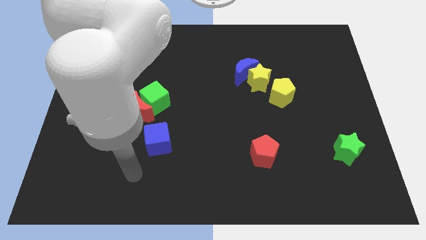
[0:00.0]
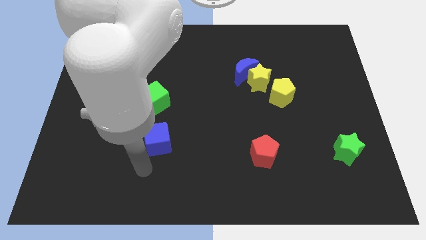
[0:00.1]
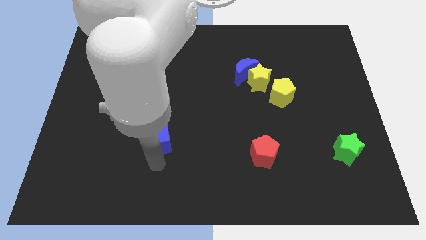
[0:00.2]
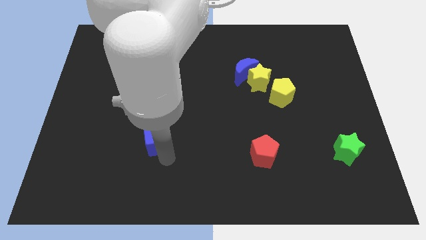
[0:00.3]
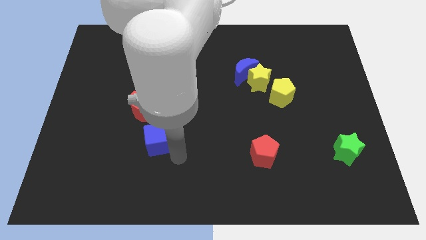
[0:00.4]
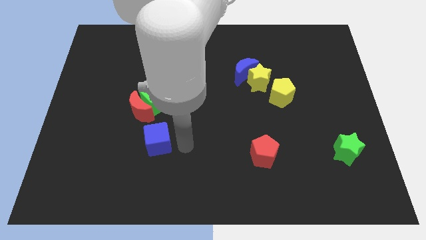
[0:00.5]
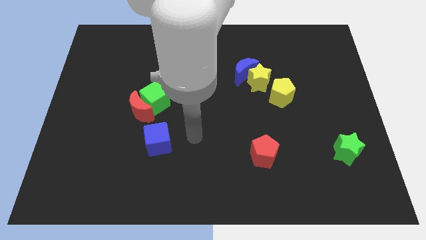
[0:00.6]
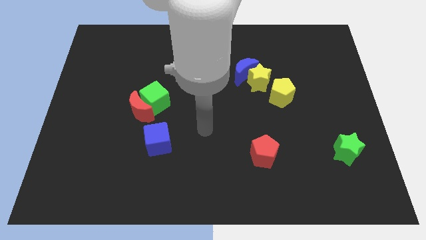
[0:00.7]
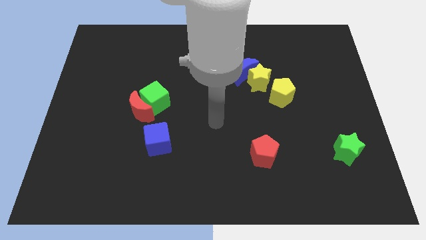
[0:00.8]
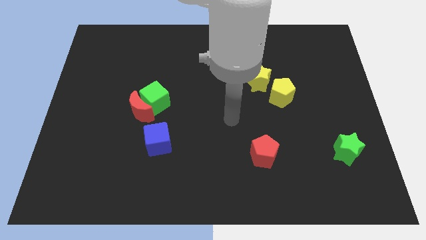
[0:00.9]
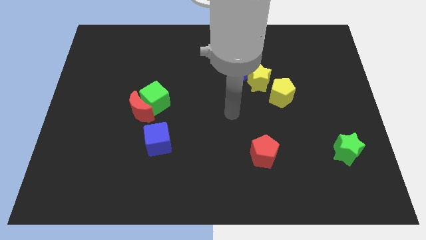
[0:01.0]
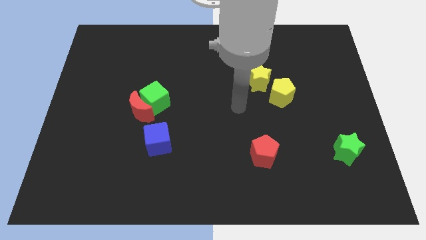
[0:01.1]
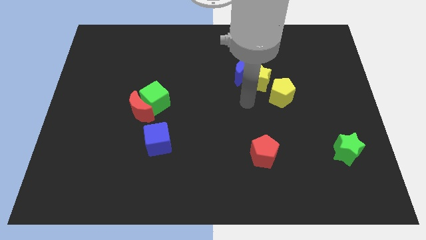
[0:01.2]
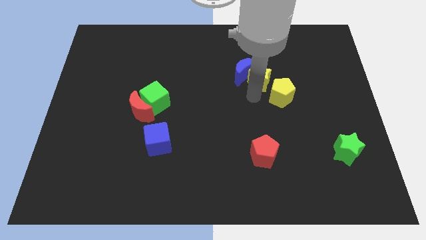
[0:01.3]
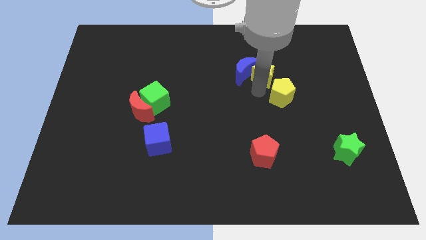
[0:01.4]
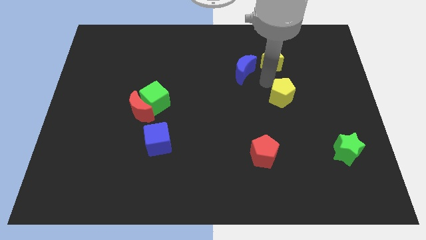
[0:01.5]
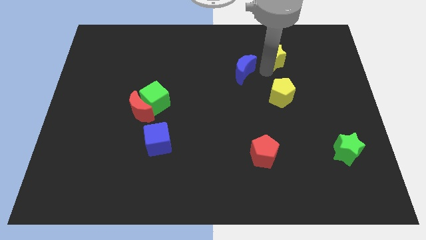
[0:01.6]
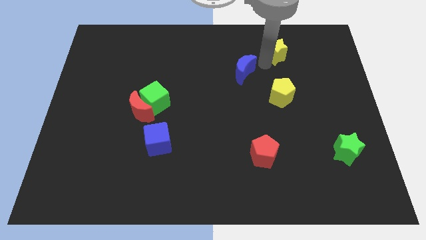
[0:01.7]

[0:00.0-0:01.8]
separate the blue moon from the yellow star

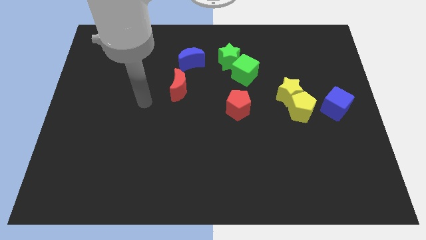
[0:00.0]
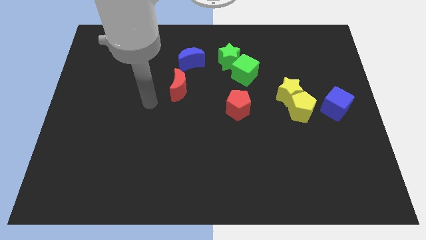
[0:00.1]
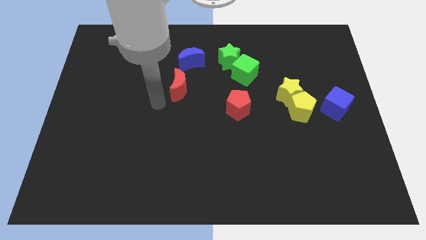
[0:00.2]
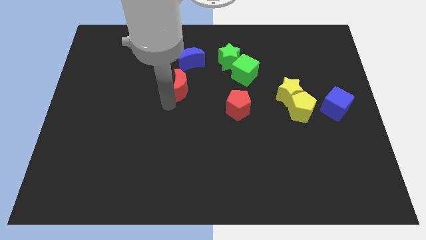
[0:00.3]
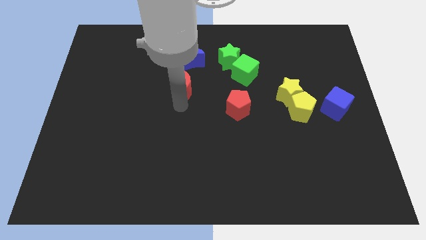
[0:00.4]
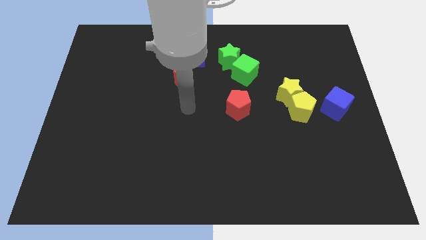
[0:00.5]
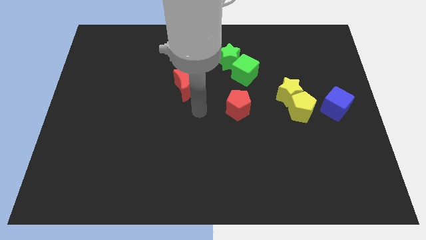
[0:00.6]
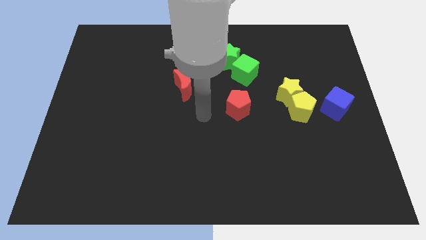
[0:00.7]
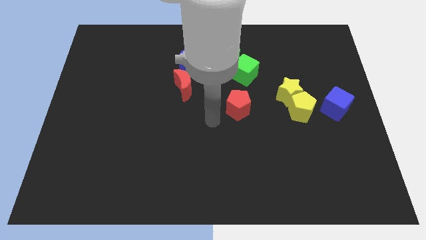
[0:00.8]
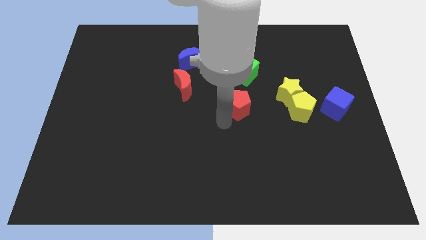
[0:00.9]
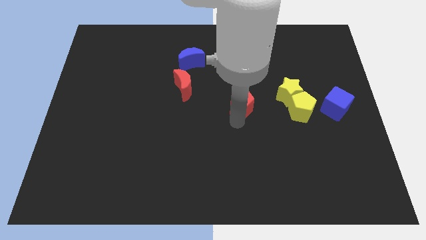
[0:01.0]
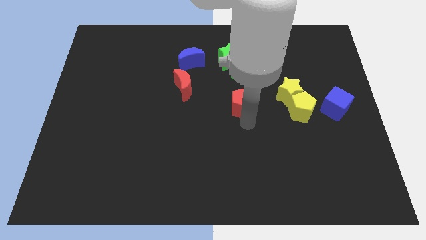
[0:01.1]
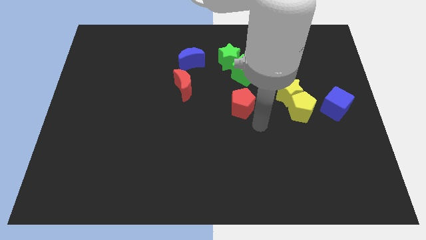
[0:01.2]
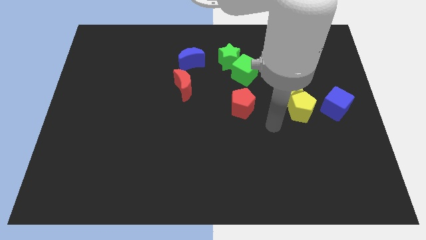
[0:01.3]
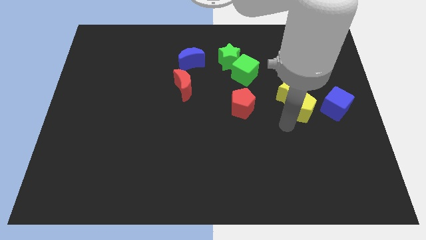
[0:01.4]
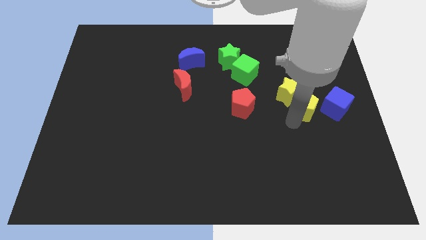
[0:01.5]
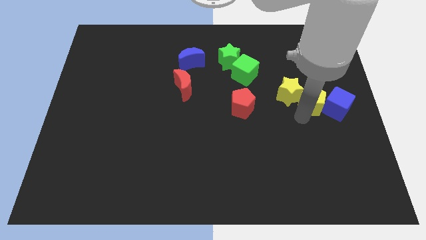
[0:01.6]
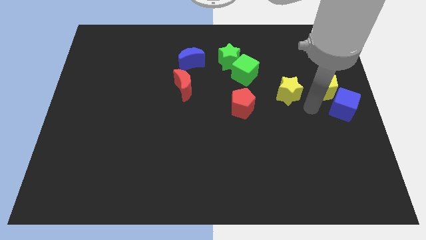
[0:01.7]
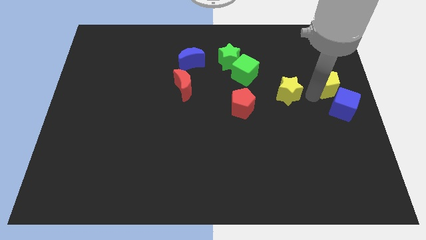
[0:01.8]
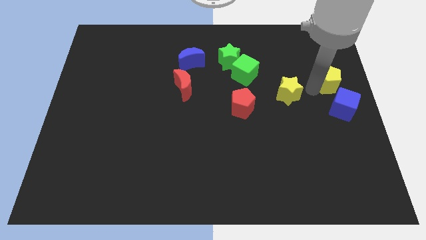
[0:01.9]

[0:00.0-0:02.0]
separate the yellow star from the yellow pentagon

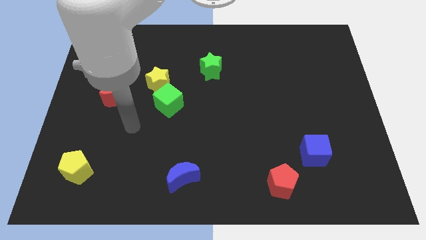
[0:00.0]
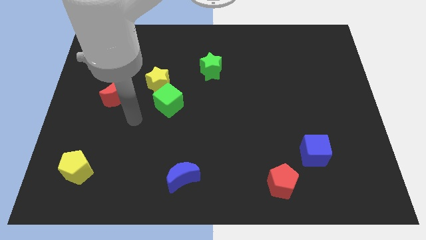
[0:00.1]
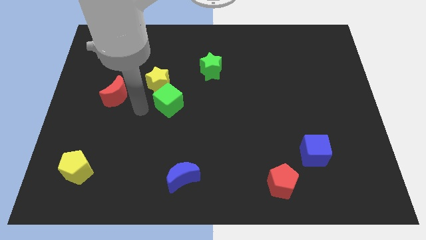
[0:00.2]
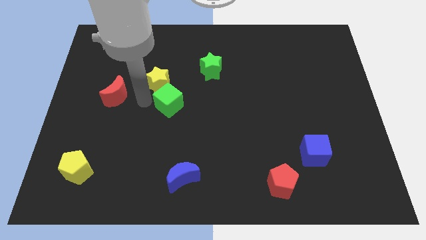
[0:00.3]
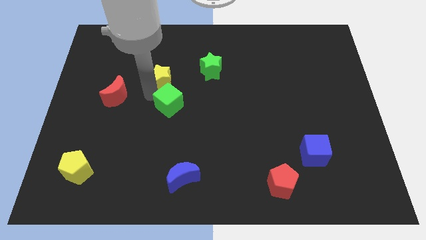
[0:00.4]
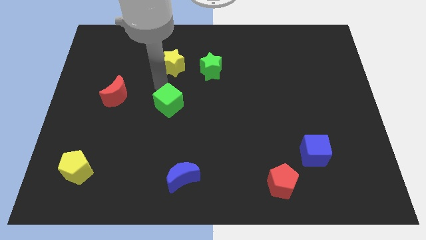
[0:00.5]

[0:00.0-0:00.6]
separate the green cube from the yellow star

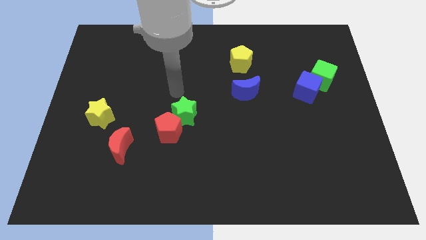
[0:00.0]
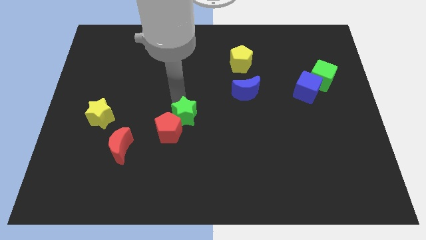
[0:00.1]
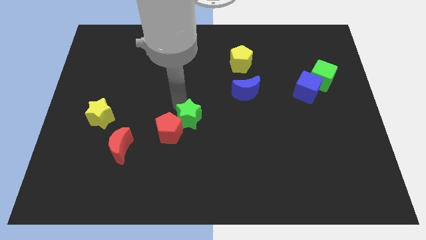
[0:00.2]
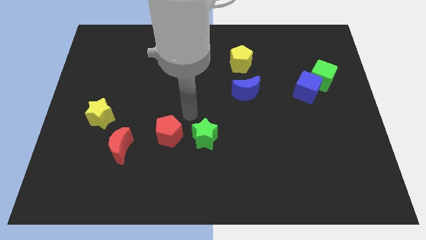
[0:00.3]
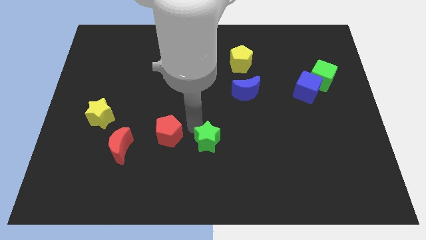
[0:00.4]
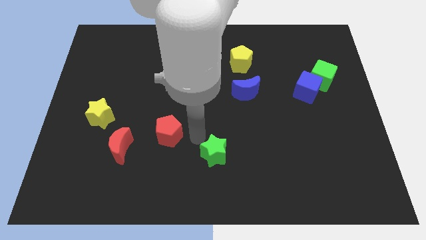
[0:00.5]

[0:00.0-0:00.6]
separate the red pentagon from the green star

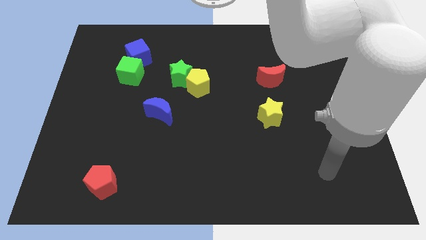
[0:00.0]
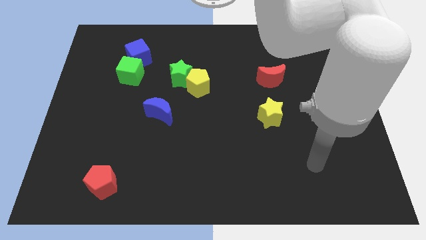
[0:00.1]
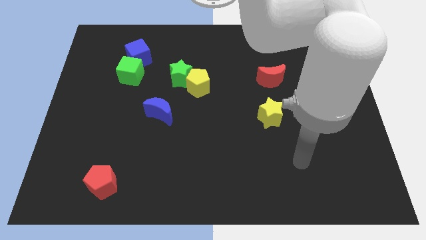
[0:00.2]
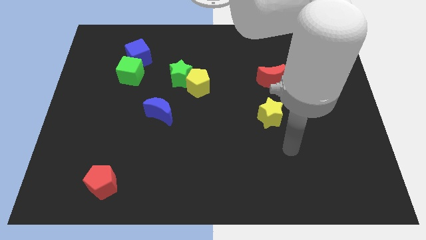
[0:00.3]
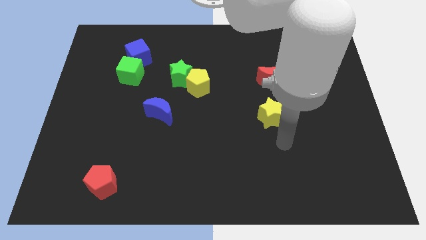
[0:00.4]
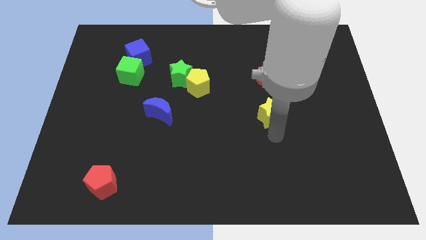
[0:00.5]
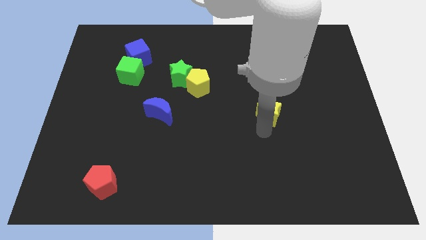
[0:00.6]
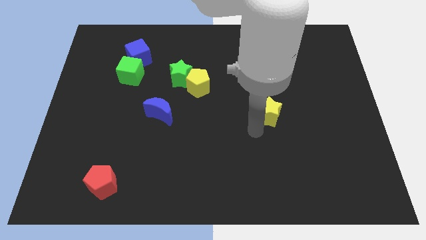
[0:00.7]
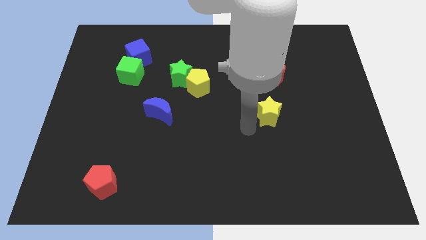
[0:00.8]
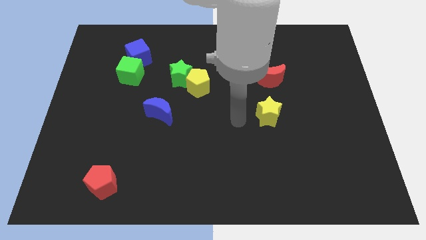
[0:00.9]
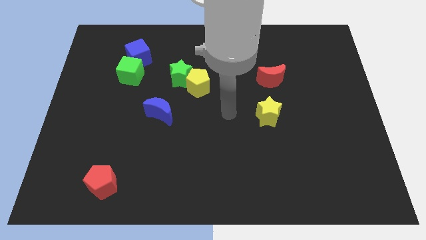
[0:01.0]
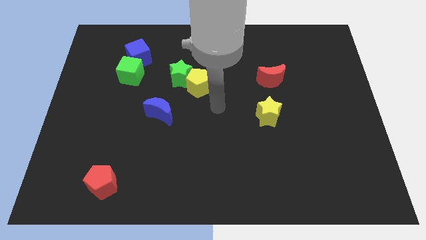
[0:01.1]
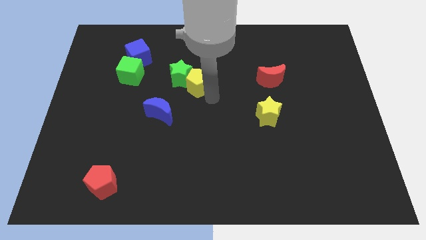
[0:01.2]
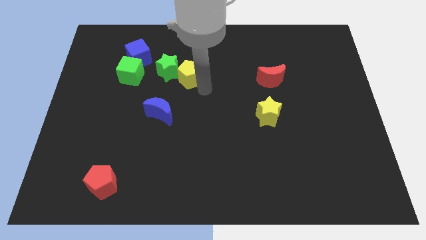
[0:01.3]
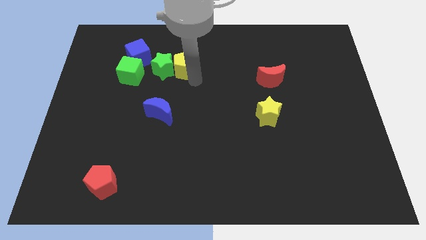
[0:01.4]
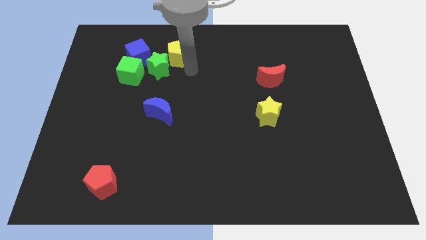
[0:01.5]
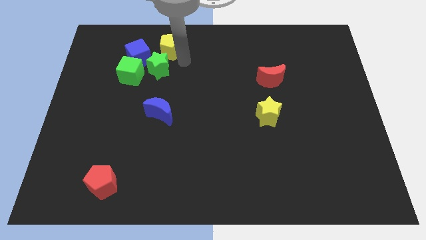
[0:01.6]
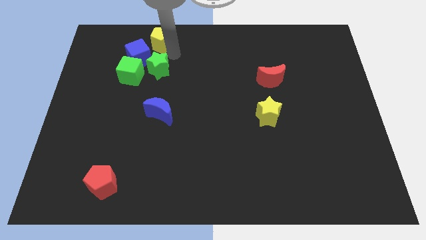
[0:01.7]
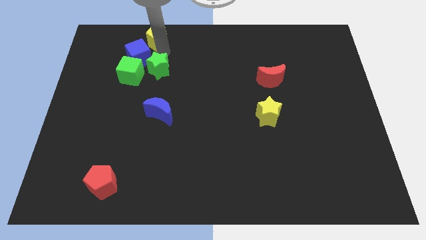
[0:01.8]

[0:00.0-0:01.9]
separate the green star from the yellow pentagon

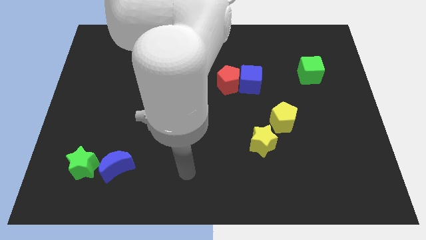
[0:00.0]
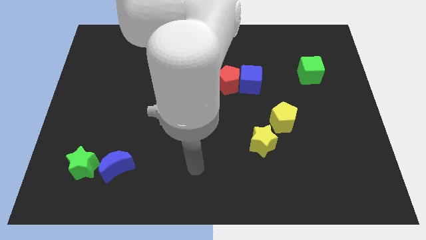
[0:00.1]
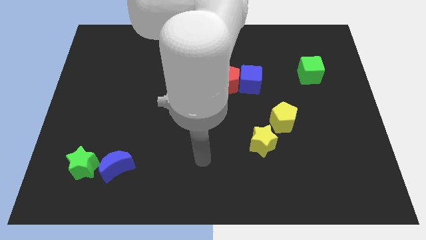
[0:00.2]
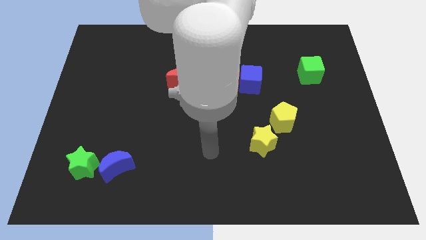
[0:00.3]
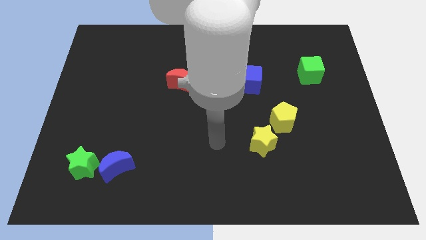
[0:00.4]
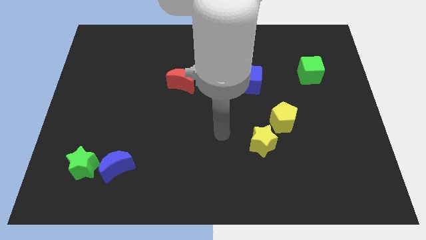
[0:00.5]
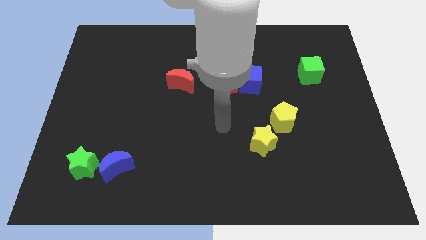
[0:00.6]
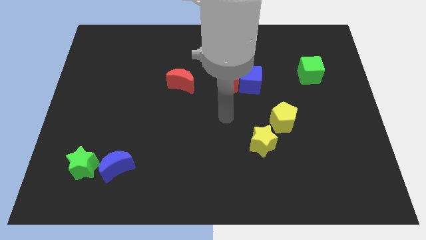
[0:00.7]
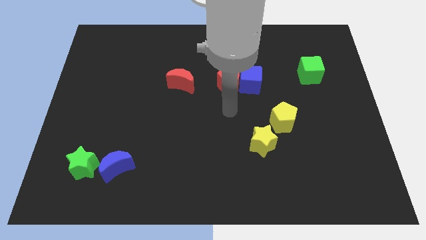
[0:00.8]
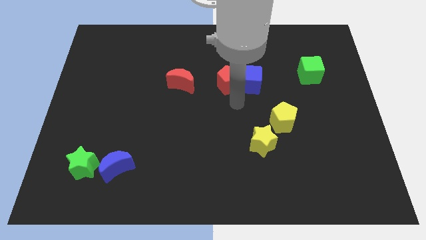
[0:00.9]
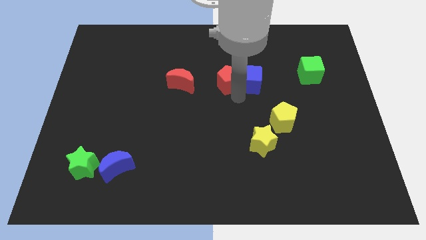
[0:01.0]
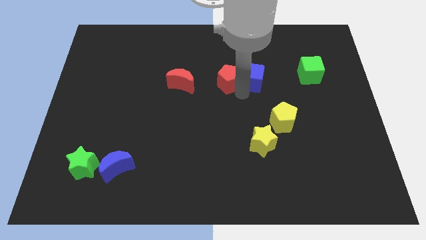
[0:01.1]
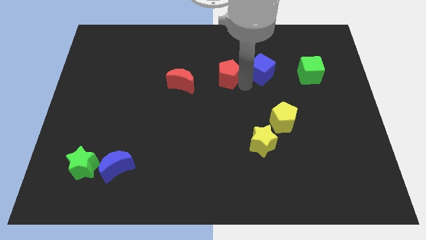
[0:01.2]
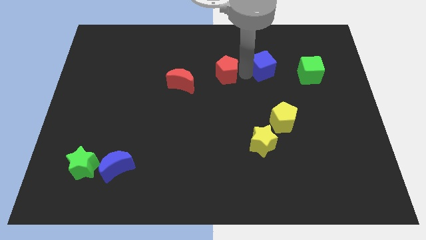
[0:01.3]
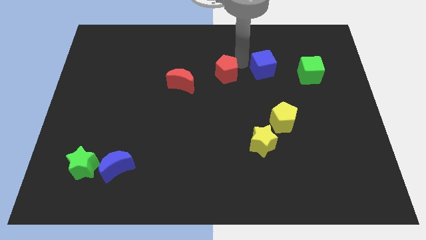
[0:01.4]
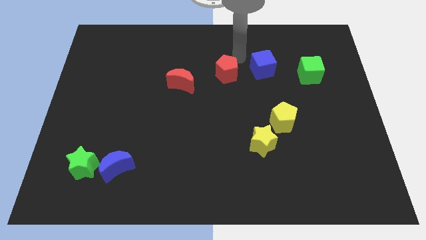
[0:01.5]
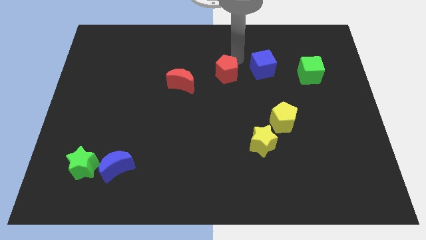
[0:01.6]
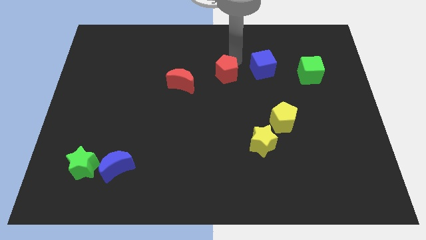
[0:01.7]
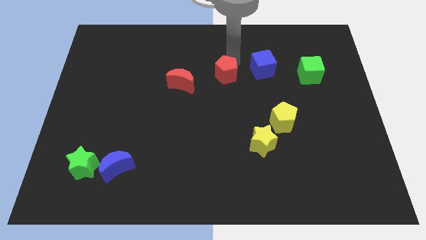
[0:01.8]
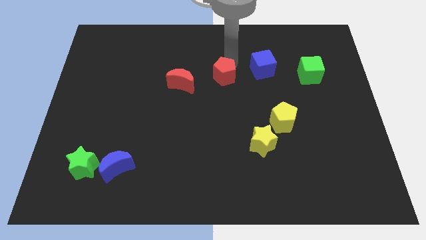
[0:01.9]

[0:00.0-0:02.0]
move the red pentagon away from the blue cube

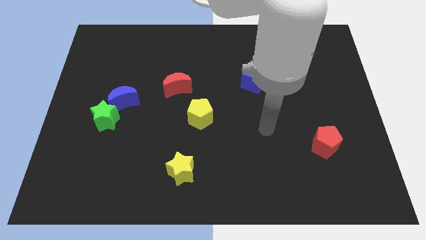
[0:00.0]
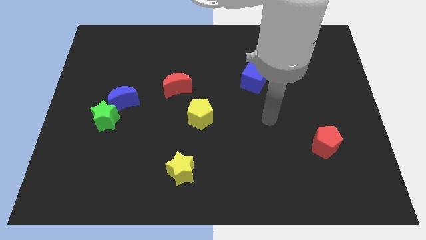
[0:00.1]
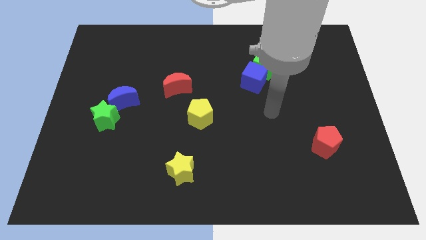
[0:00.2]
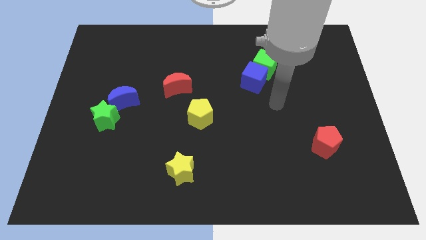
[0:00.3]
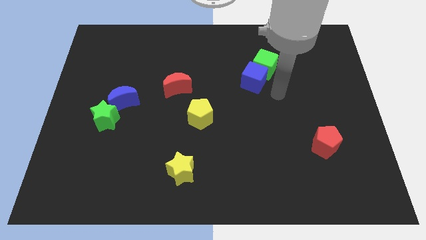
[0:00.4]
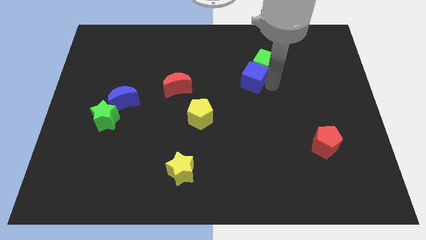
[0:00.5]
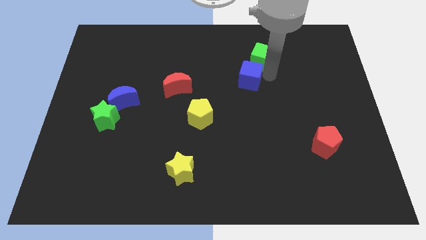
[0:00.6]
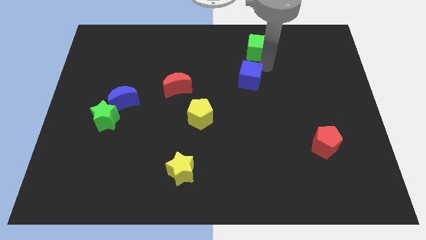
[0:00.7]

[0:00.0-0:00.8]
pull the blue cube apart from the green cube
